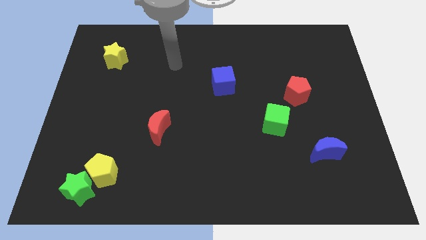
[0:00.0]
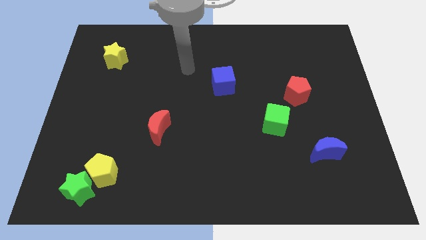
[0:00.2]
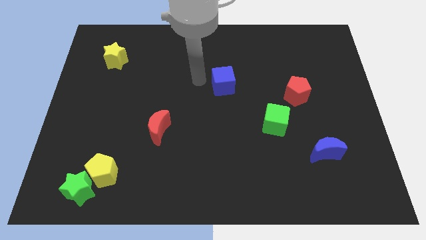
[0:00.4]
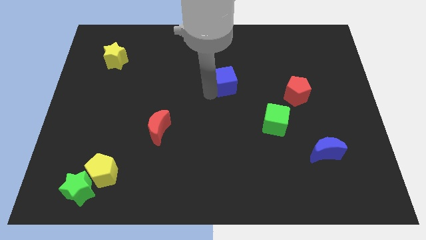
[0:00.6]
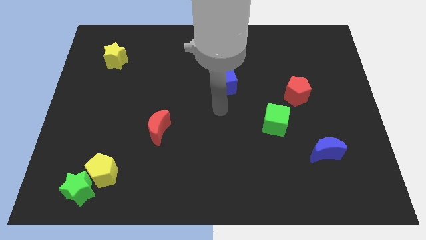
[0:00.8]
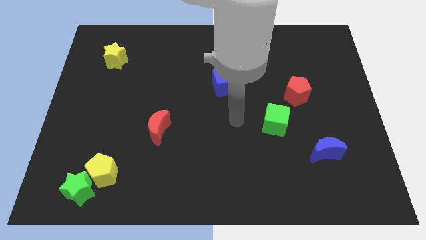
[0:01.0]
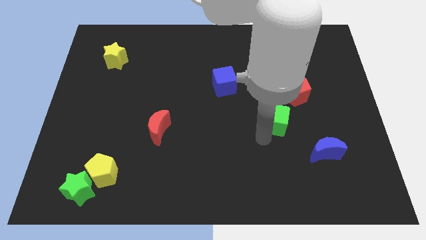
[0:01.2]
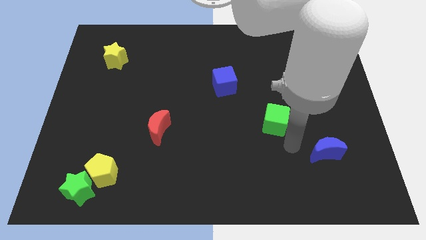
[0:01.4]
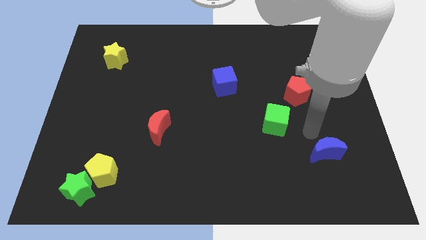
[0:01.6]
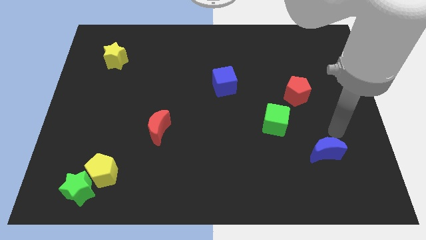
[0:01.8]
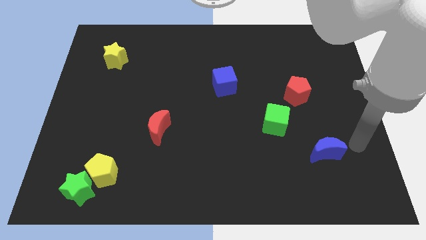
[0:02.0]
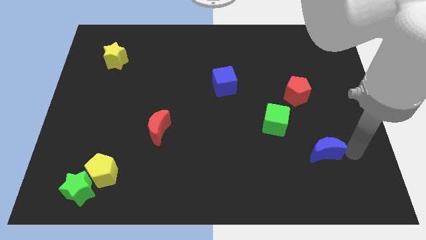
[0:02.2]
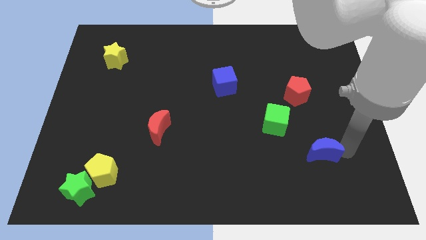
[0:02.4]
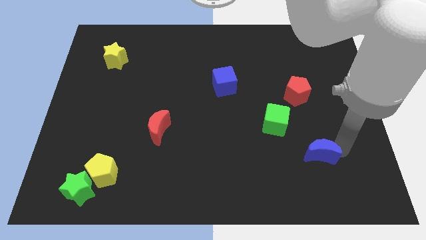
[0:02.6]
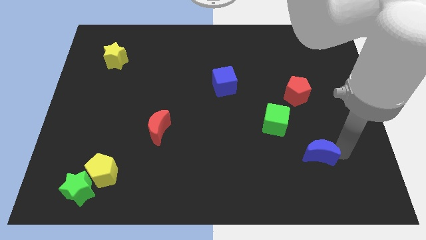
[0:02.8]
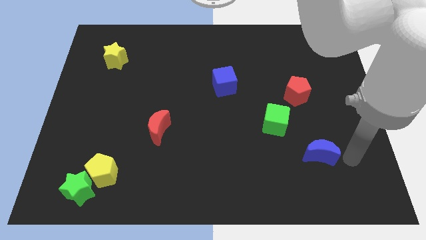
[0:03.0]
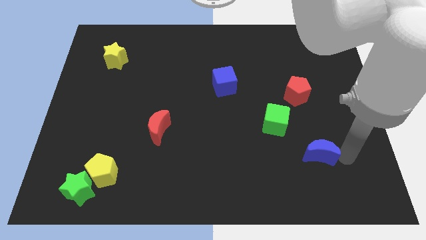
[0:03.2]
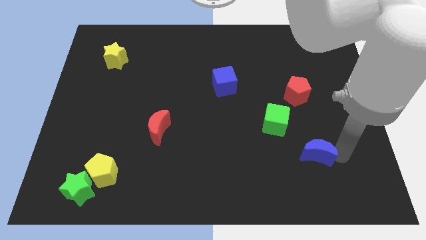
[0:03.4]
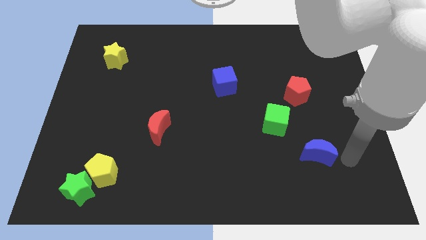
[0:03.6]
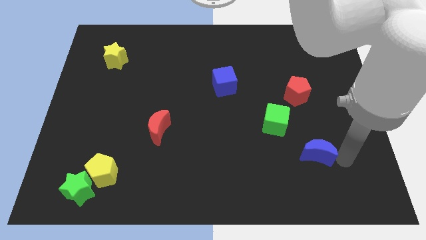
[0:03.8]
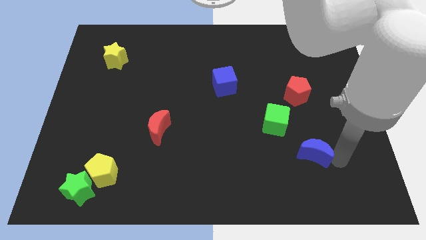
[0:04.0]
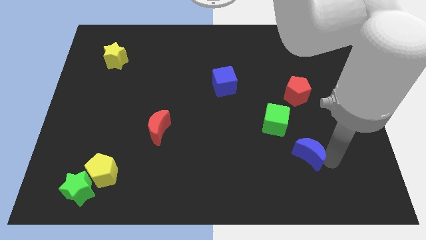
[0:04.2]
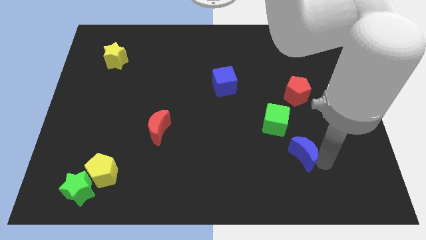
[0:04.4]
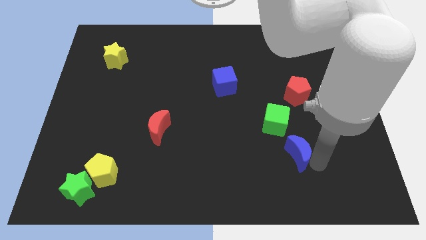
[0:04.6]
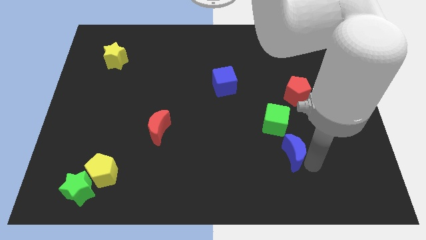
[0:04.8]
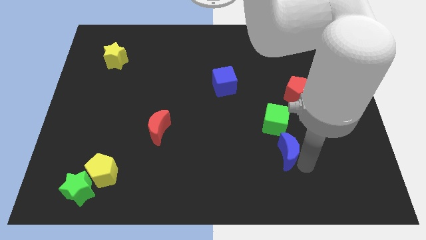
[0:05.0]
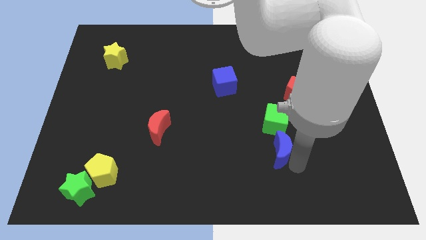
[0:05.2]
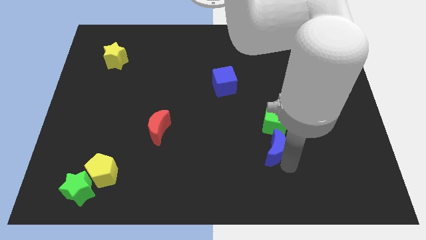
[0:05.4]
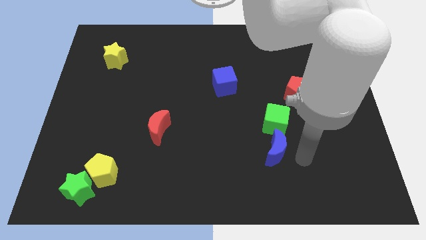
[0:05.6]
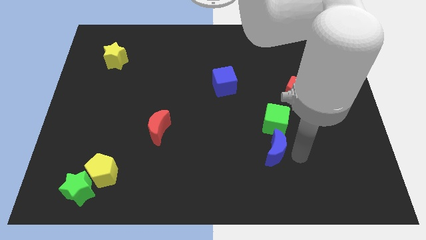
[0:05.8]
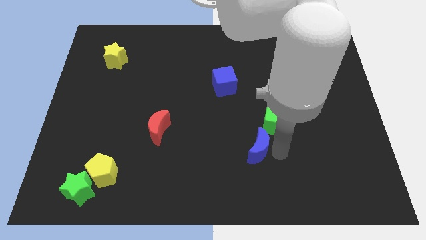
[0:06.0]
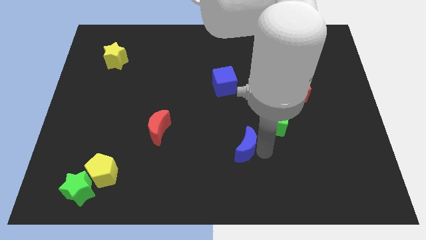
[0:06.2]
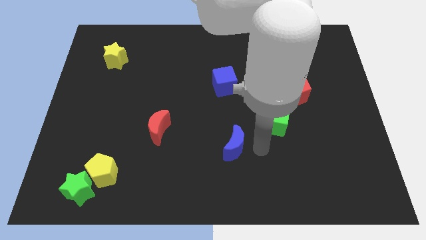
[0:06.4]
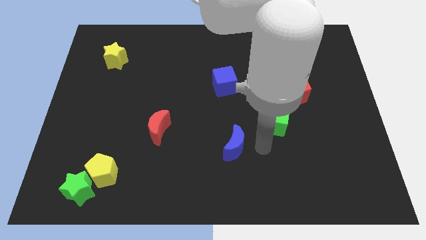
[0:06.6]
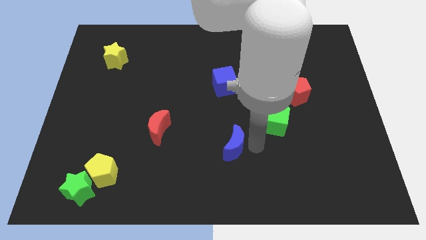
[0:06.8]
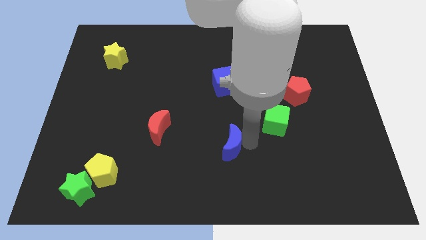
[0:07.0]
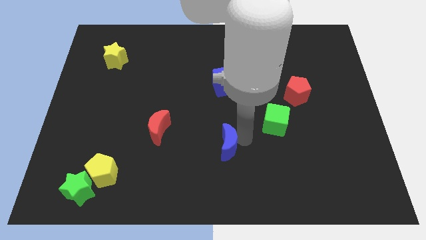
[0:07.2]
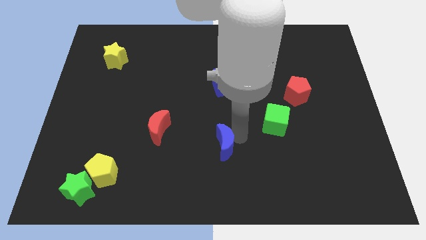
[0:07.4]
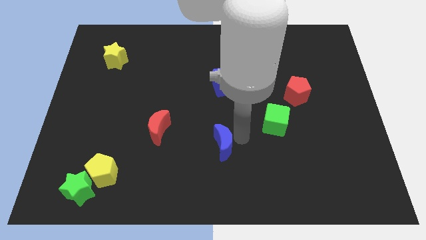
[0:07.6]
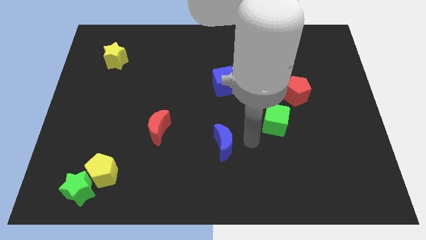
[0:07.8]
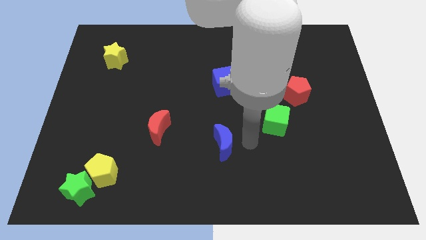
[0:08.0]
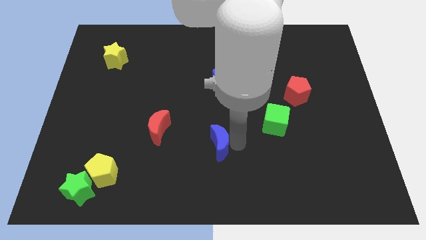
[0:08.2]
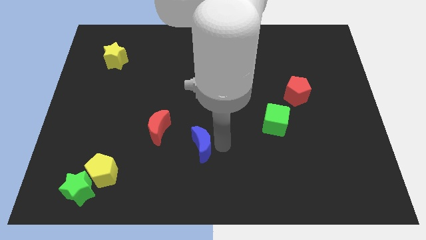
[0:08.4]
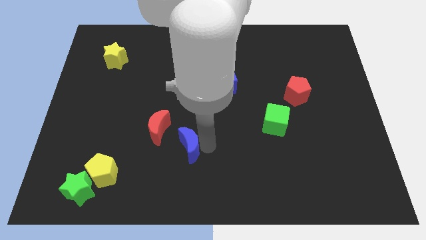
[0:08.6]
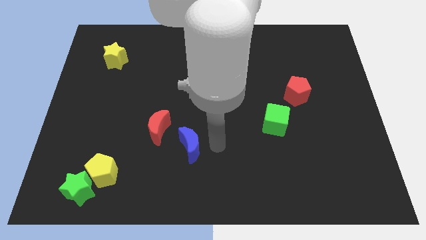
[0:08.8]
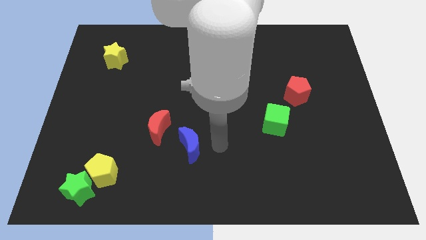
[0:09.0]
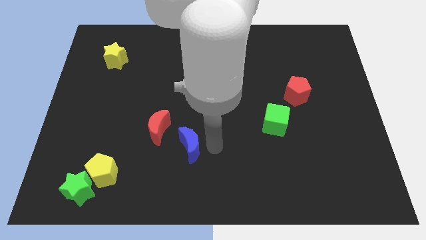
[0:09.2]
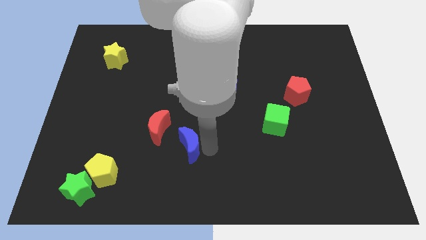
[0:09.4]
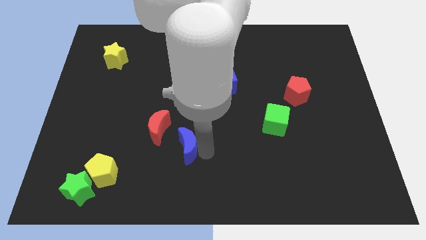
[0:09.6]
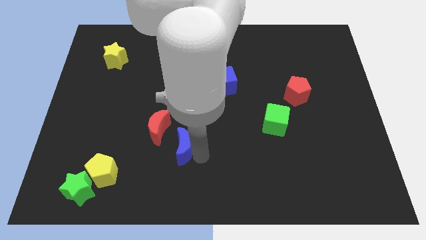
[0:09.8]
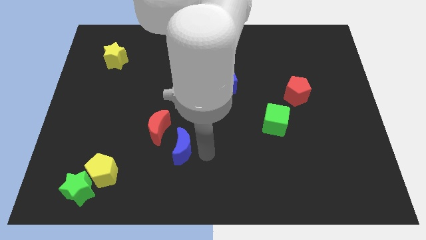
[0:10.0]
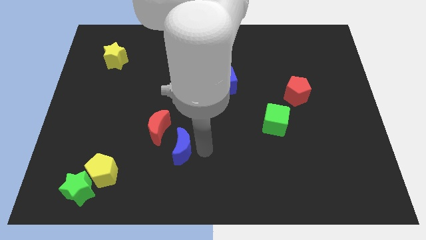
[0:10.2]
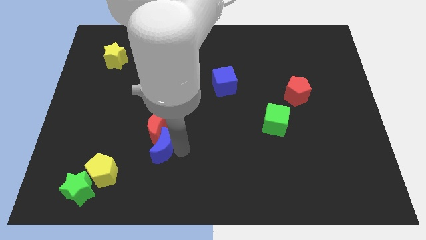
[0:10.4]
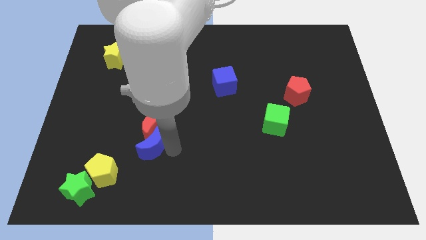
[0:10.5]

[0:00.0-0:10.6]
put the blue moon diagonally down and to the left of the red moon

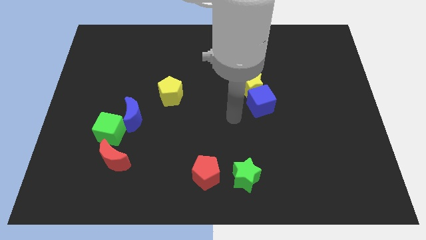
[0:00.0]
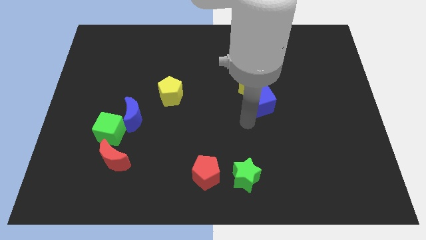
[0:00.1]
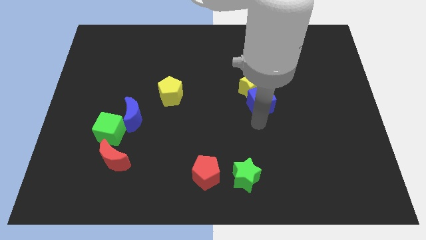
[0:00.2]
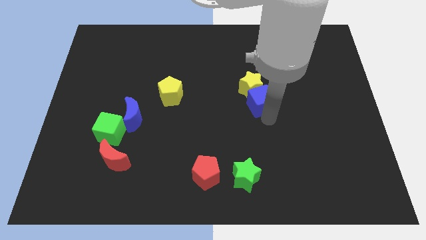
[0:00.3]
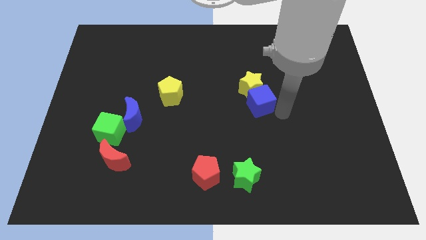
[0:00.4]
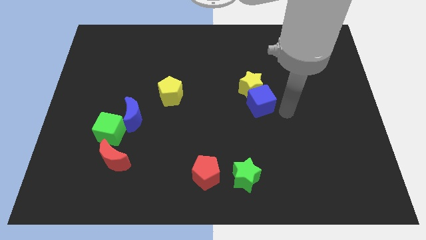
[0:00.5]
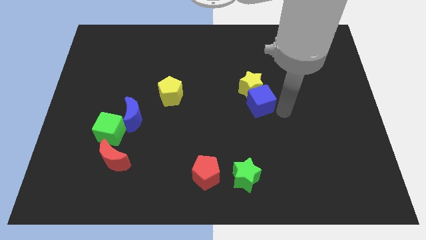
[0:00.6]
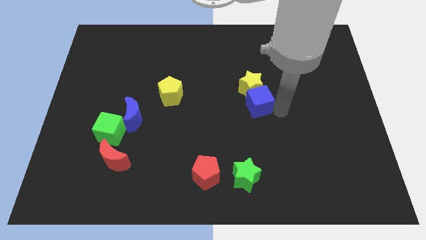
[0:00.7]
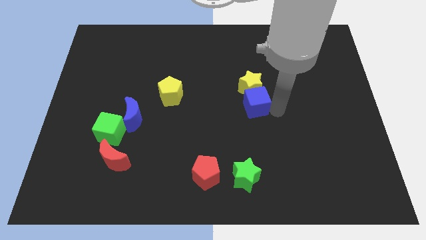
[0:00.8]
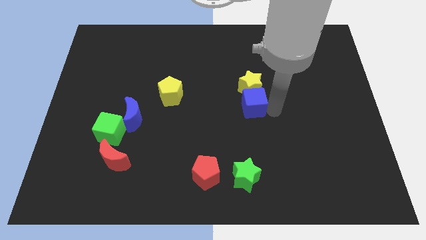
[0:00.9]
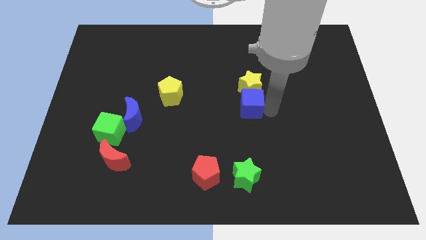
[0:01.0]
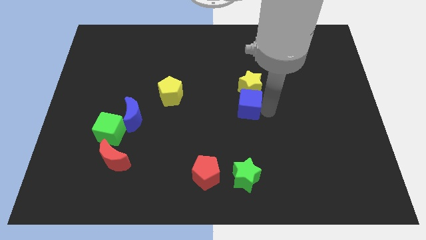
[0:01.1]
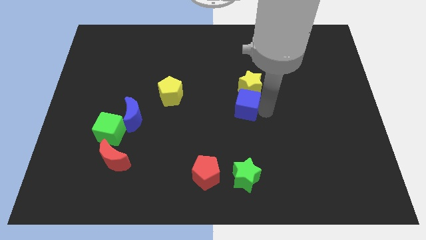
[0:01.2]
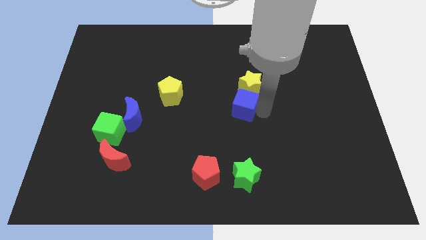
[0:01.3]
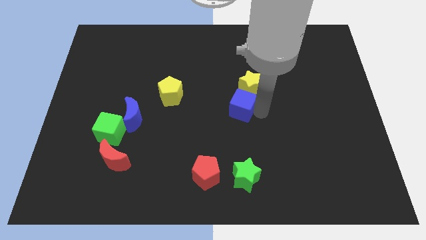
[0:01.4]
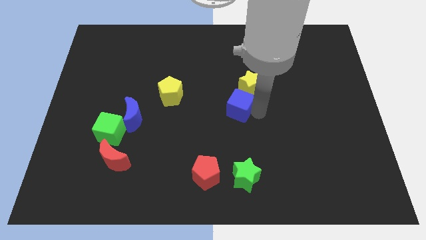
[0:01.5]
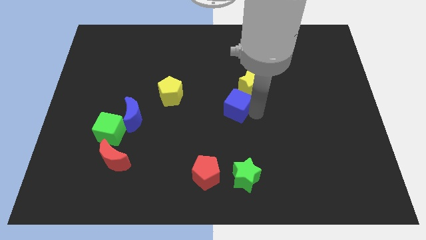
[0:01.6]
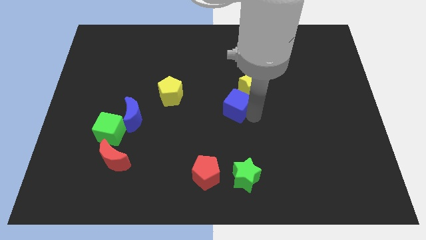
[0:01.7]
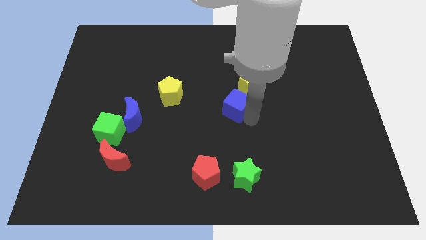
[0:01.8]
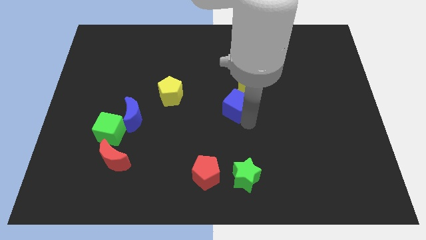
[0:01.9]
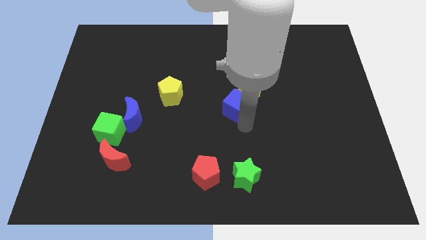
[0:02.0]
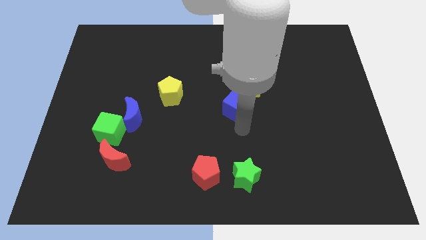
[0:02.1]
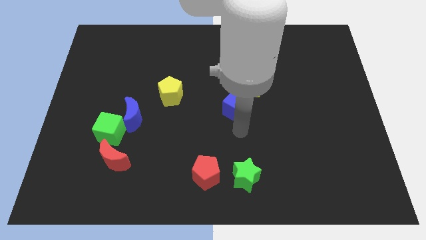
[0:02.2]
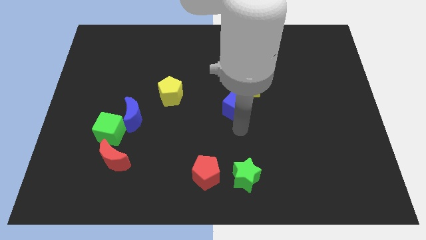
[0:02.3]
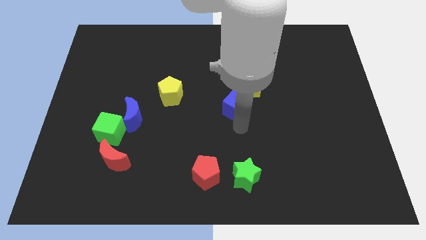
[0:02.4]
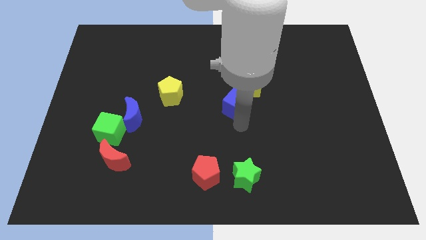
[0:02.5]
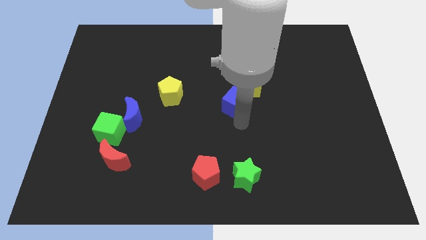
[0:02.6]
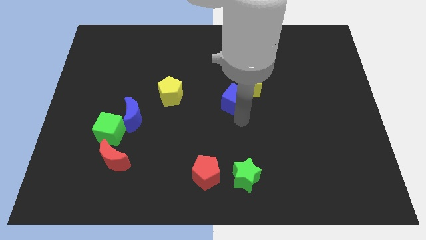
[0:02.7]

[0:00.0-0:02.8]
put the blue cube to the left of the yellow star
